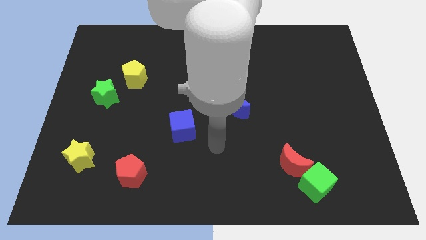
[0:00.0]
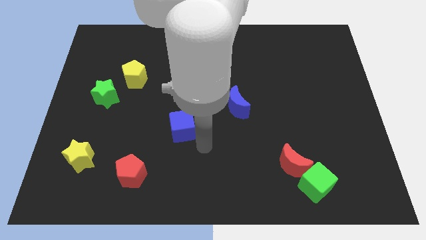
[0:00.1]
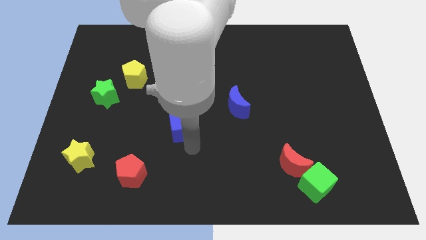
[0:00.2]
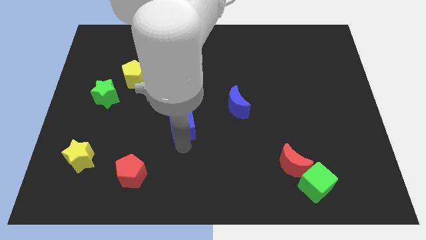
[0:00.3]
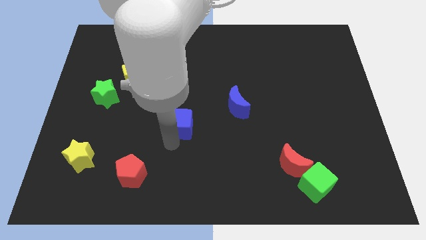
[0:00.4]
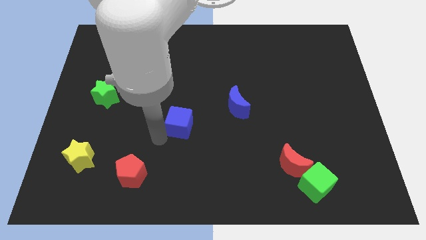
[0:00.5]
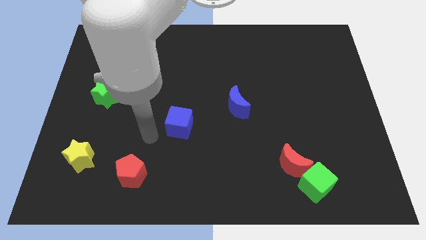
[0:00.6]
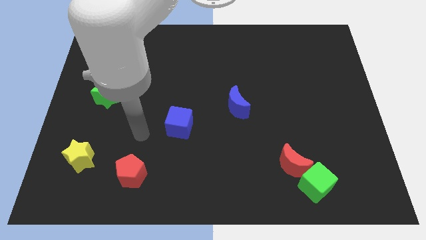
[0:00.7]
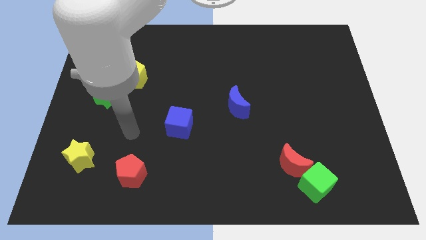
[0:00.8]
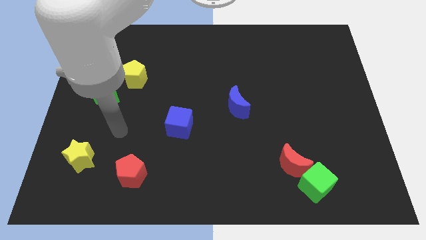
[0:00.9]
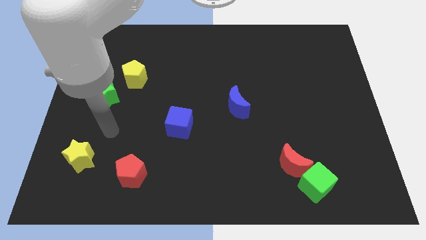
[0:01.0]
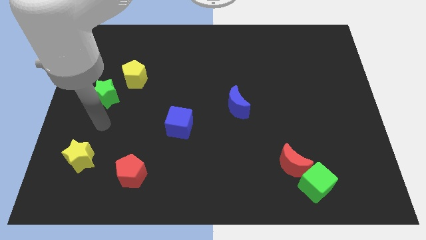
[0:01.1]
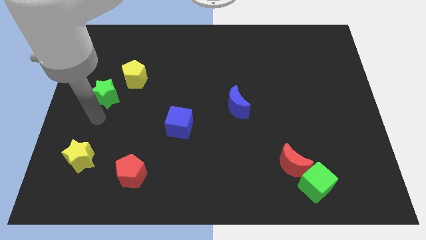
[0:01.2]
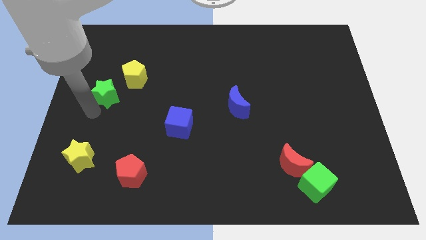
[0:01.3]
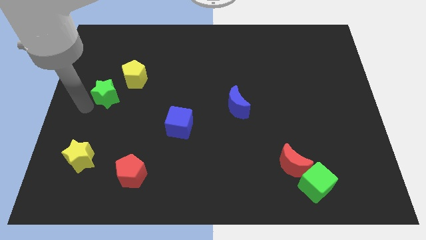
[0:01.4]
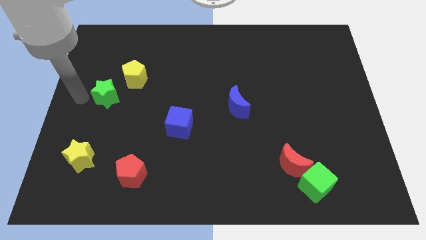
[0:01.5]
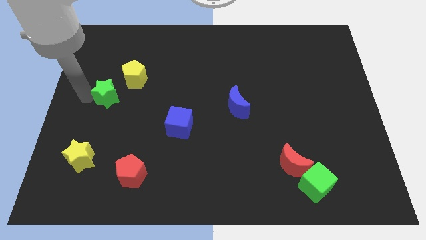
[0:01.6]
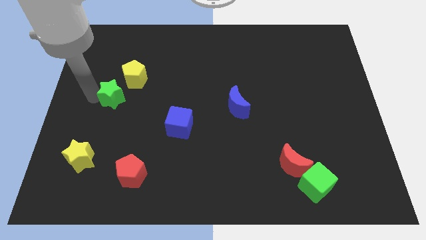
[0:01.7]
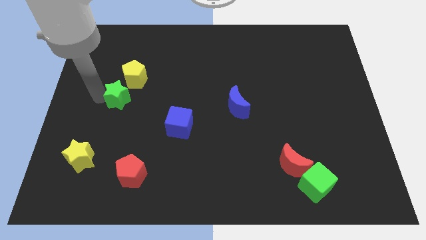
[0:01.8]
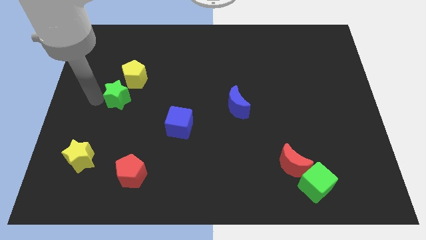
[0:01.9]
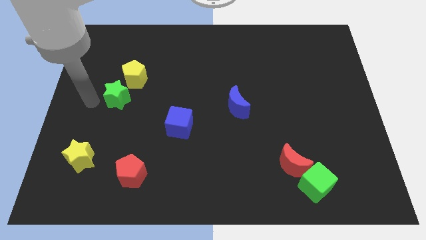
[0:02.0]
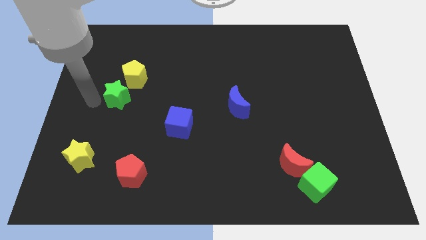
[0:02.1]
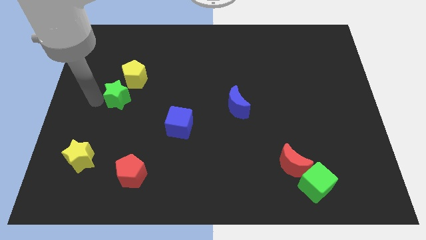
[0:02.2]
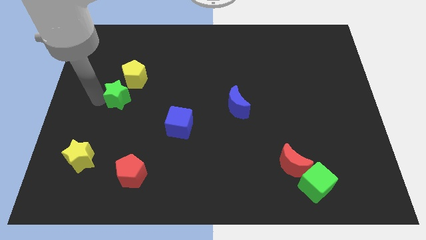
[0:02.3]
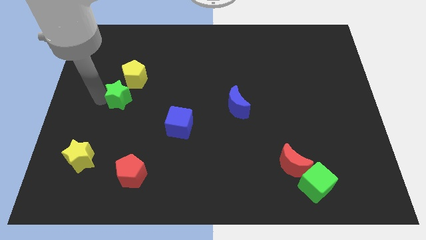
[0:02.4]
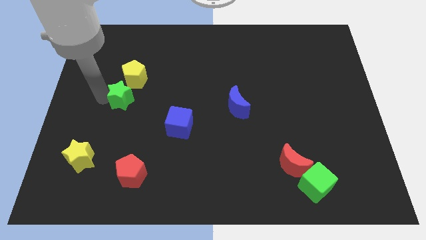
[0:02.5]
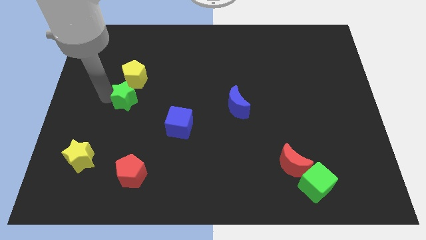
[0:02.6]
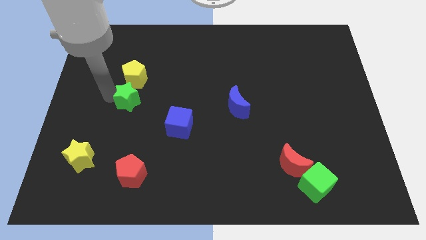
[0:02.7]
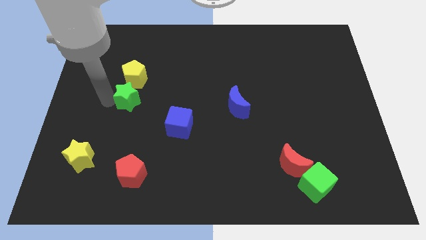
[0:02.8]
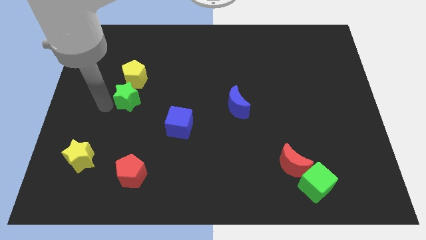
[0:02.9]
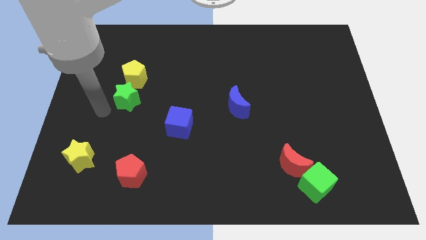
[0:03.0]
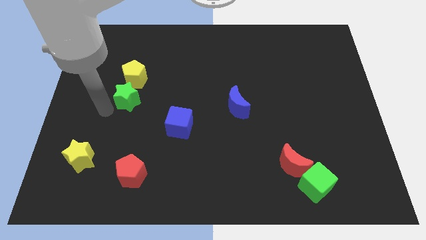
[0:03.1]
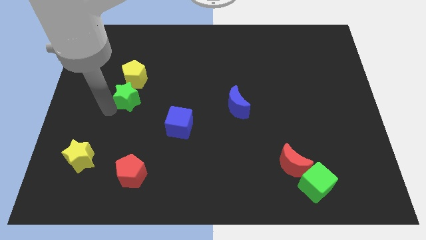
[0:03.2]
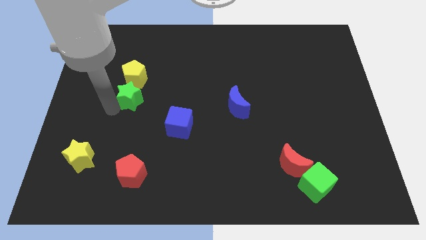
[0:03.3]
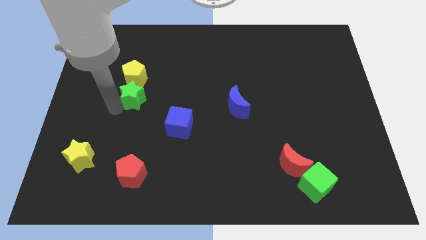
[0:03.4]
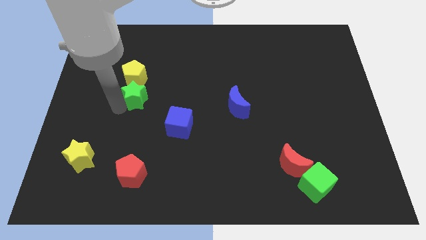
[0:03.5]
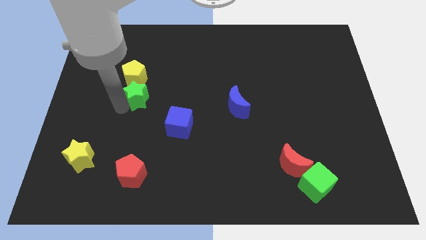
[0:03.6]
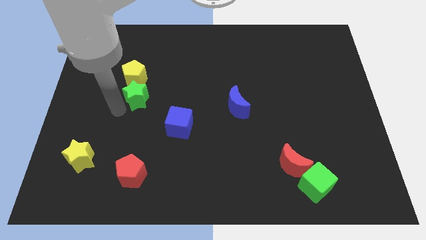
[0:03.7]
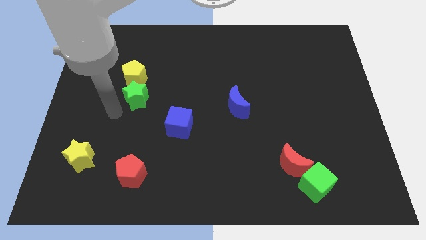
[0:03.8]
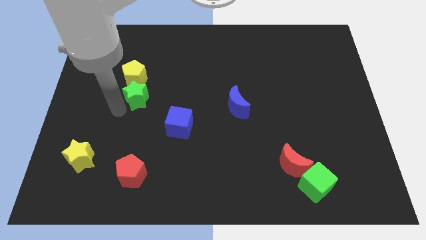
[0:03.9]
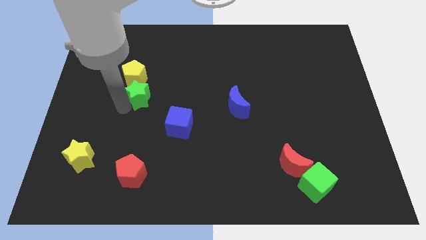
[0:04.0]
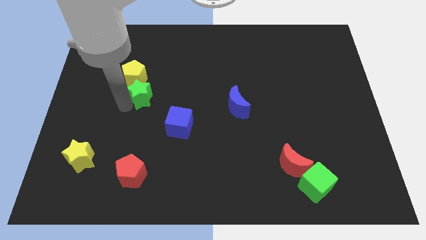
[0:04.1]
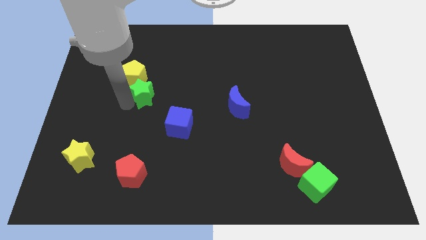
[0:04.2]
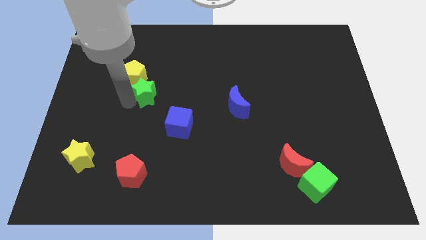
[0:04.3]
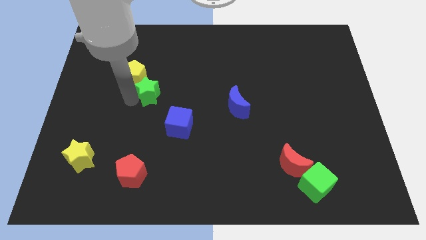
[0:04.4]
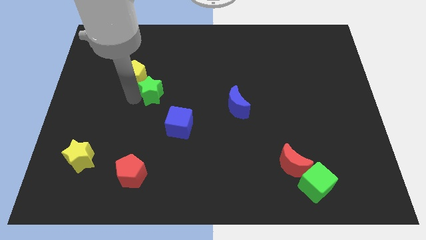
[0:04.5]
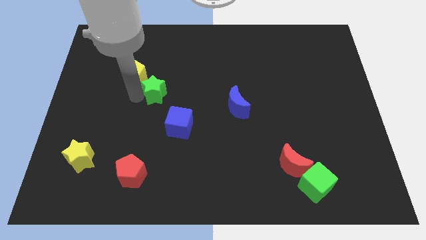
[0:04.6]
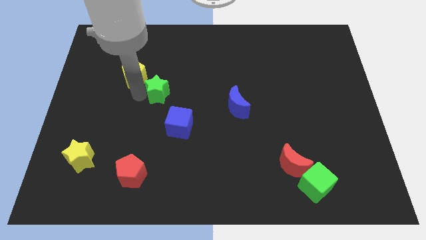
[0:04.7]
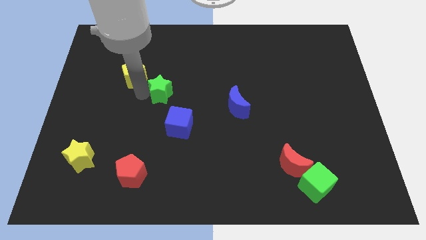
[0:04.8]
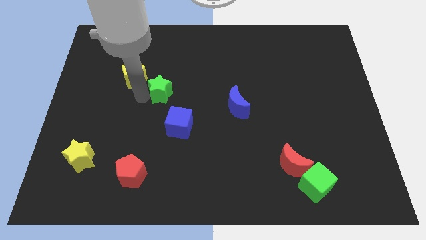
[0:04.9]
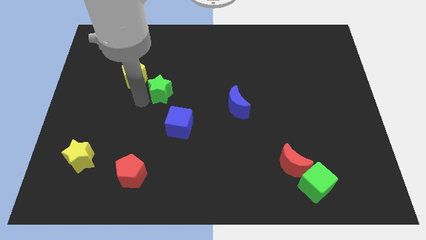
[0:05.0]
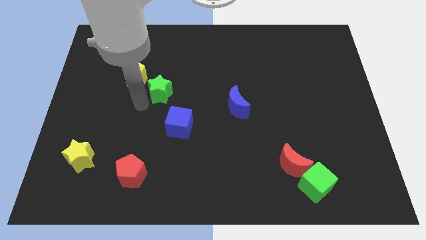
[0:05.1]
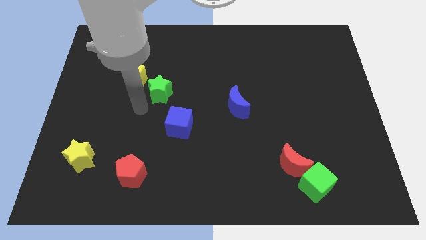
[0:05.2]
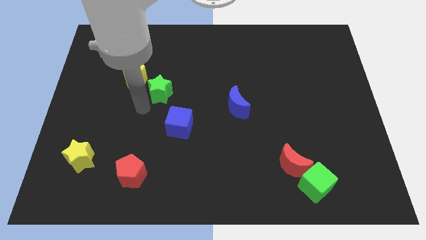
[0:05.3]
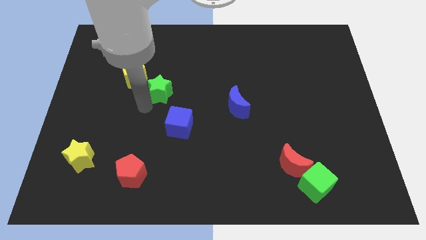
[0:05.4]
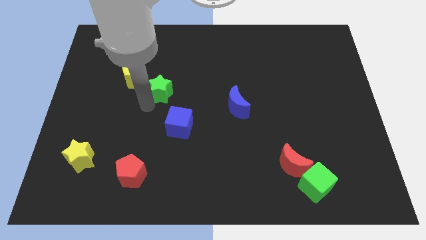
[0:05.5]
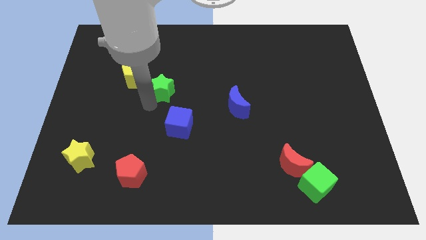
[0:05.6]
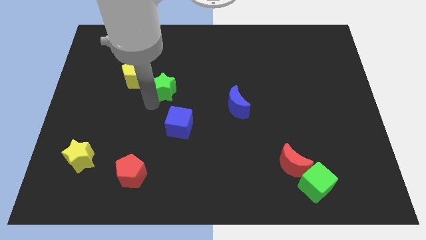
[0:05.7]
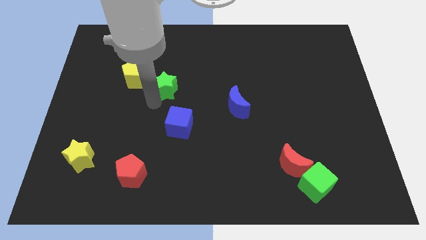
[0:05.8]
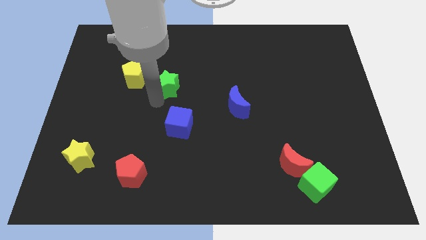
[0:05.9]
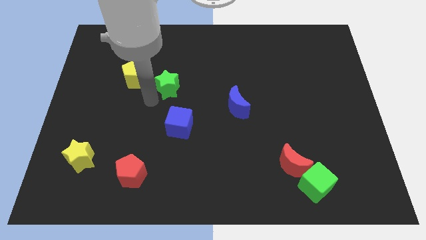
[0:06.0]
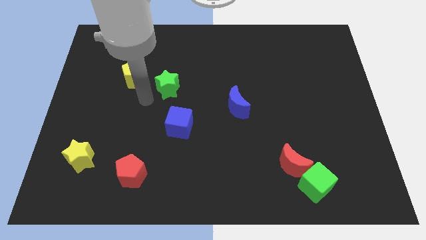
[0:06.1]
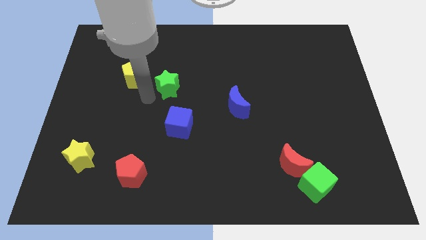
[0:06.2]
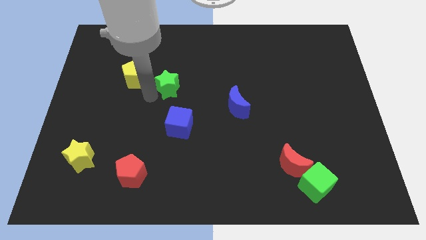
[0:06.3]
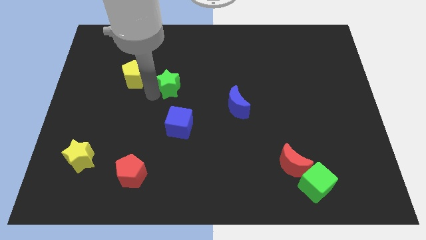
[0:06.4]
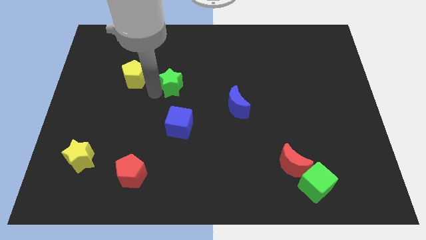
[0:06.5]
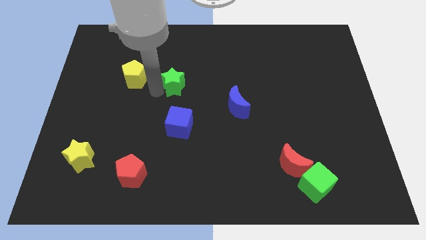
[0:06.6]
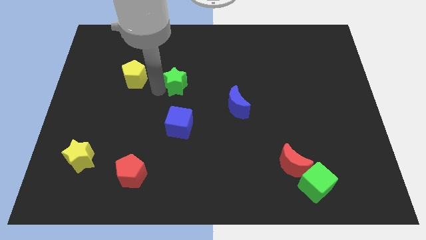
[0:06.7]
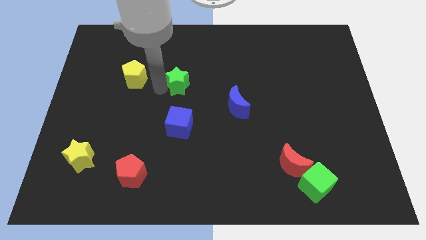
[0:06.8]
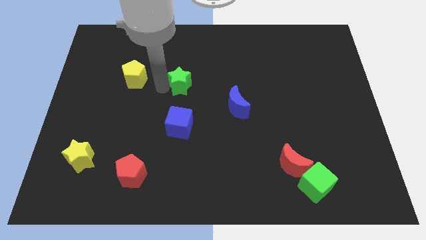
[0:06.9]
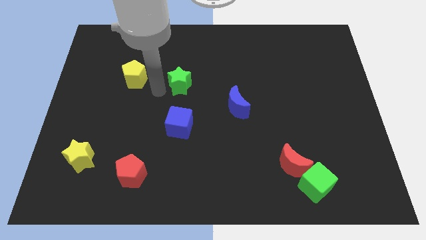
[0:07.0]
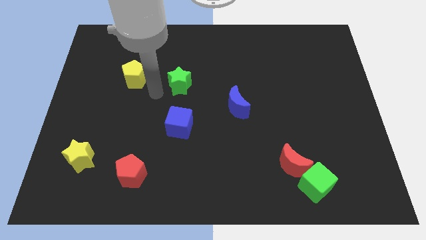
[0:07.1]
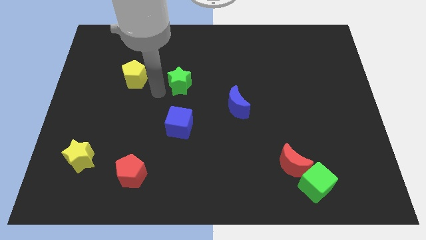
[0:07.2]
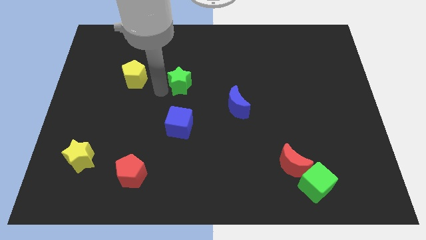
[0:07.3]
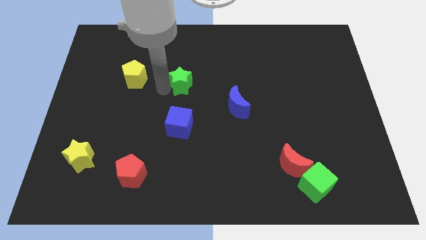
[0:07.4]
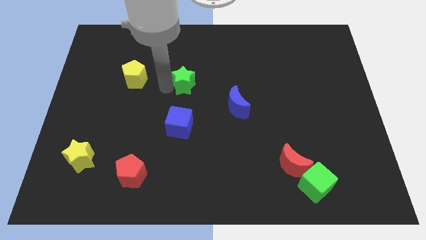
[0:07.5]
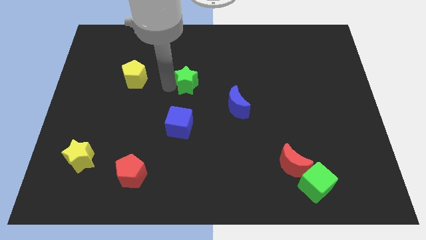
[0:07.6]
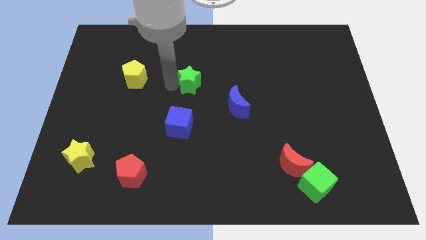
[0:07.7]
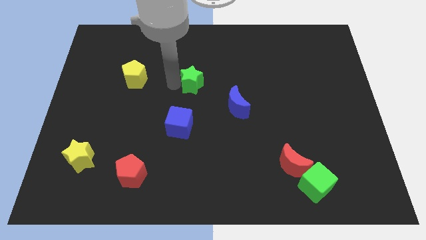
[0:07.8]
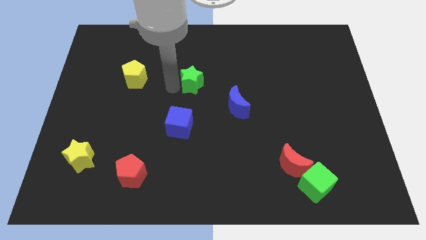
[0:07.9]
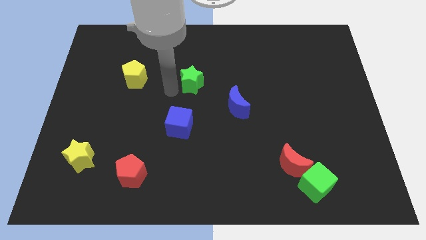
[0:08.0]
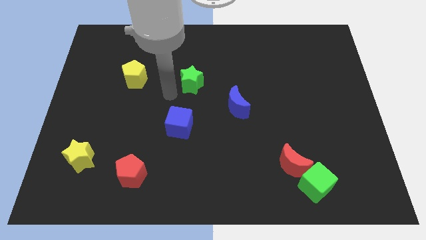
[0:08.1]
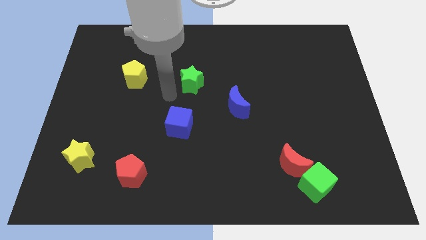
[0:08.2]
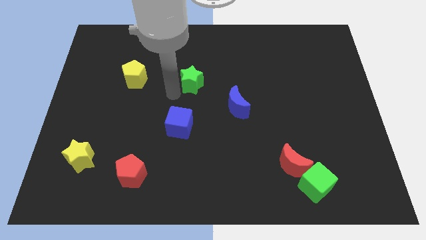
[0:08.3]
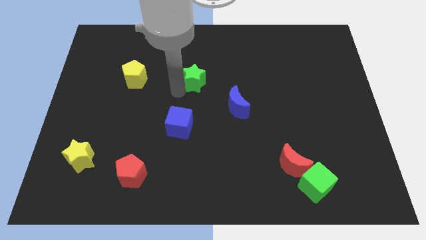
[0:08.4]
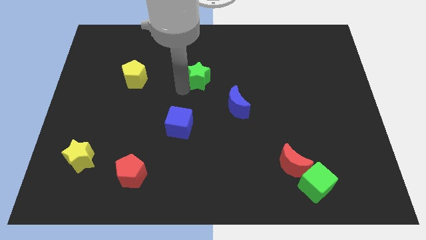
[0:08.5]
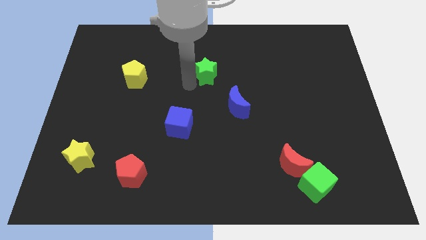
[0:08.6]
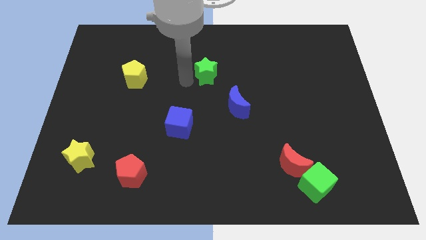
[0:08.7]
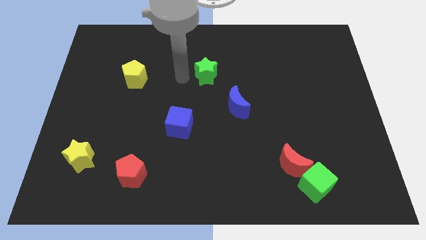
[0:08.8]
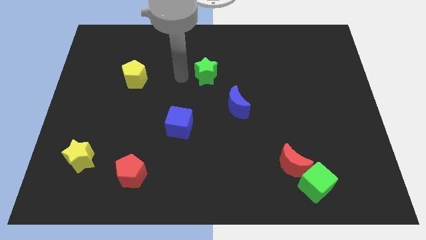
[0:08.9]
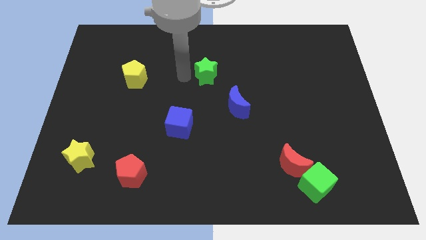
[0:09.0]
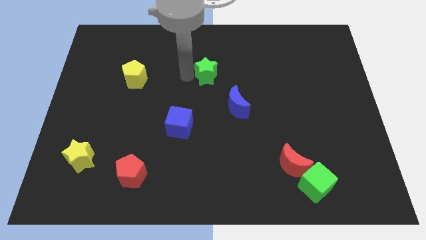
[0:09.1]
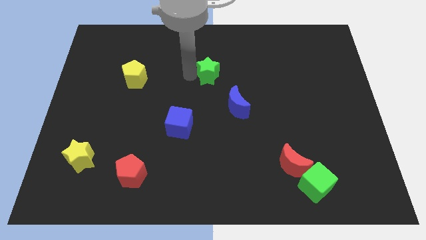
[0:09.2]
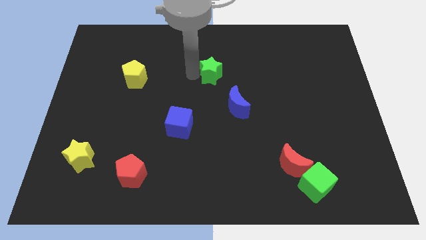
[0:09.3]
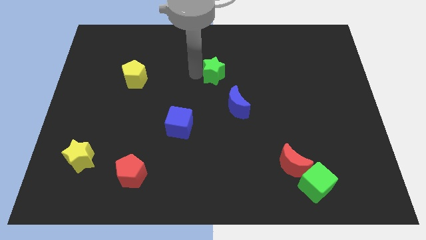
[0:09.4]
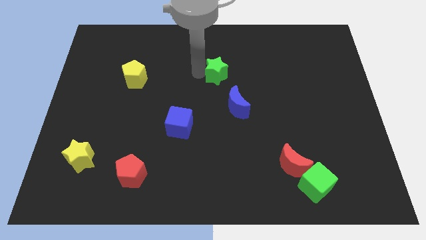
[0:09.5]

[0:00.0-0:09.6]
slide the green star above the blue moon
